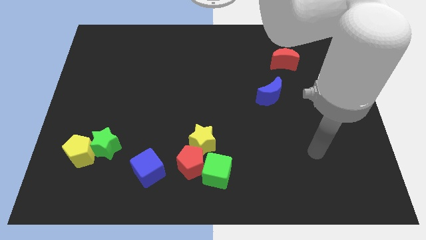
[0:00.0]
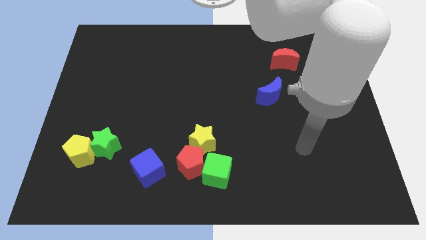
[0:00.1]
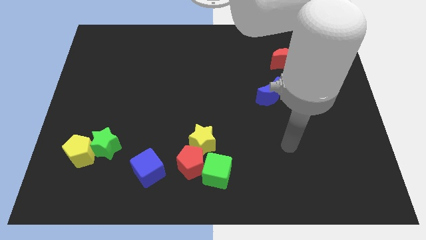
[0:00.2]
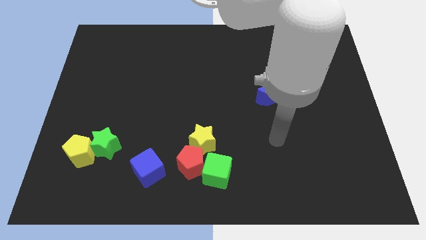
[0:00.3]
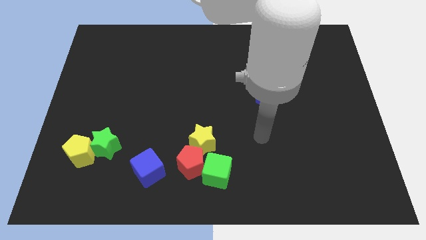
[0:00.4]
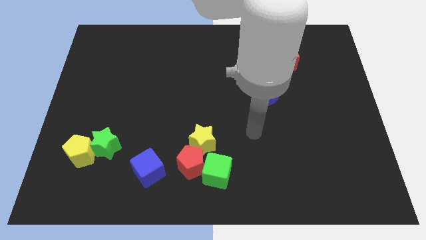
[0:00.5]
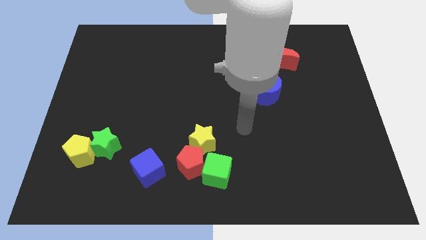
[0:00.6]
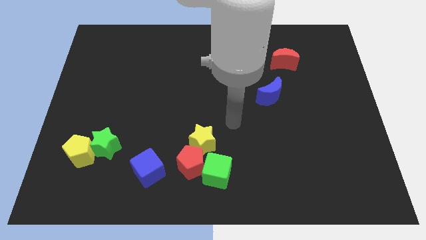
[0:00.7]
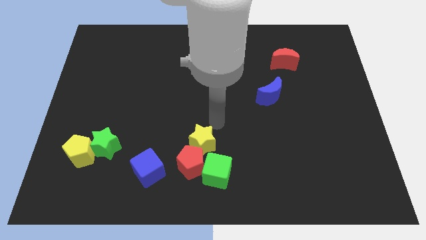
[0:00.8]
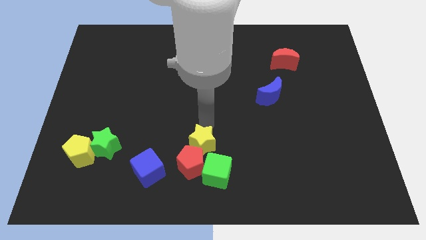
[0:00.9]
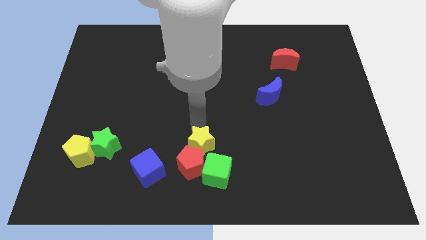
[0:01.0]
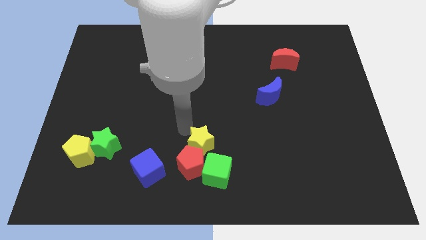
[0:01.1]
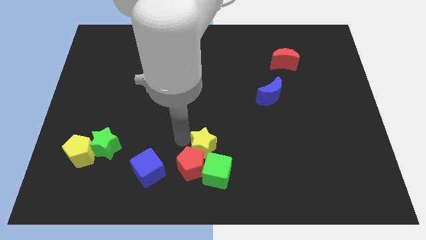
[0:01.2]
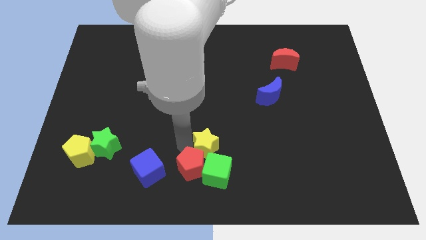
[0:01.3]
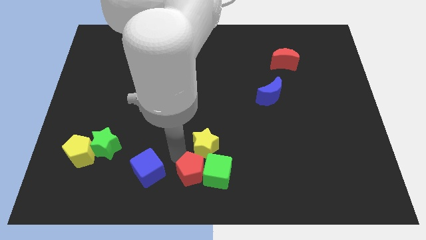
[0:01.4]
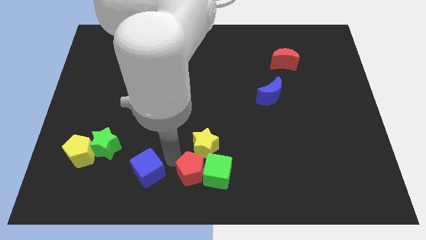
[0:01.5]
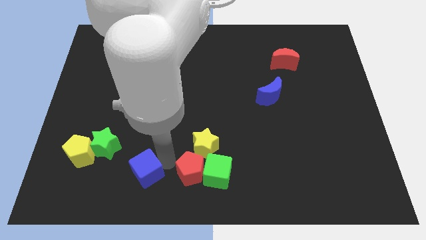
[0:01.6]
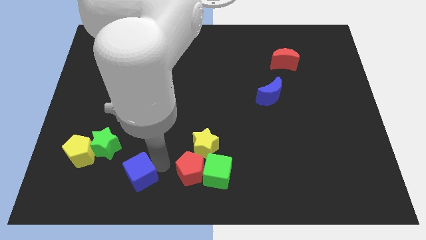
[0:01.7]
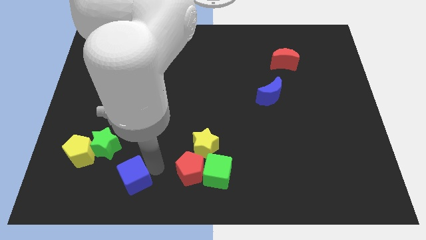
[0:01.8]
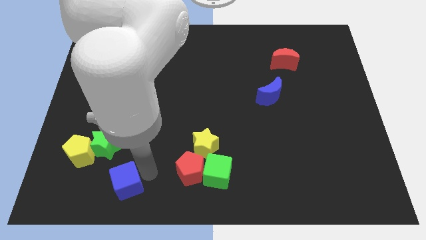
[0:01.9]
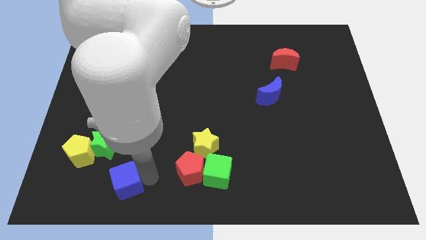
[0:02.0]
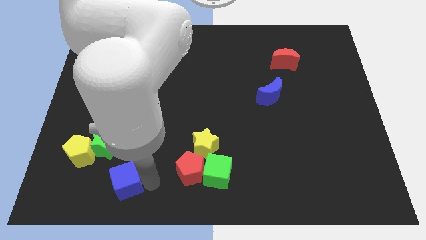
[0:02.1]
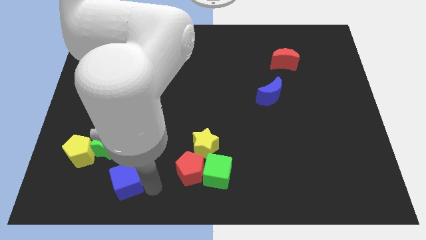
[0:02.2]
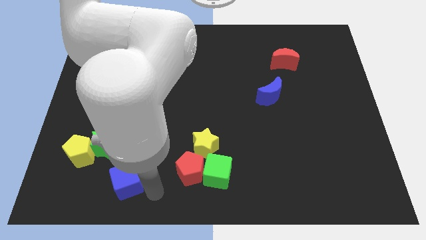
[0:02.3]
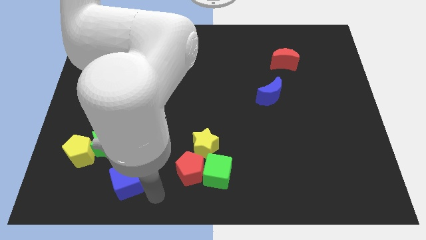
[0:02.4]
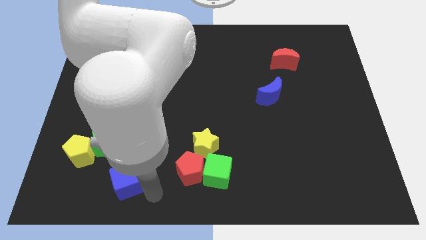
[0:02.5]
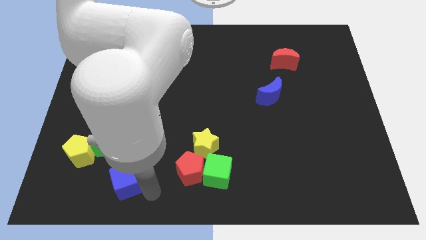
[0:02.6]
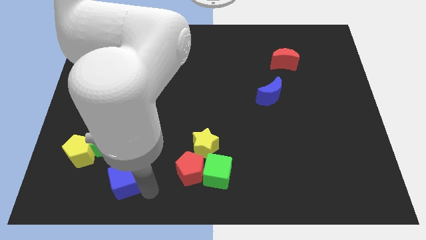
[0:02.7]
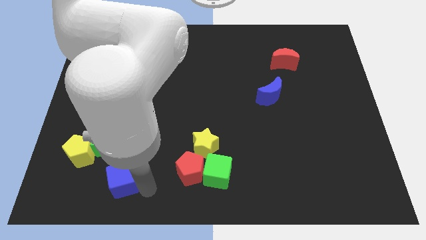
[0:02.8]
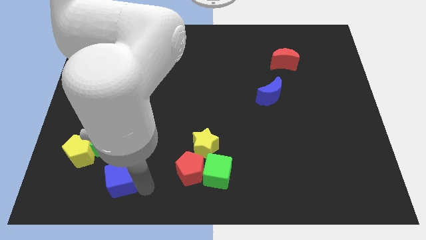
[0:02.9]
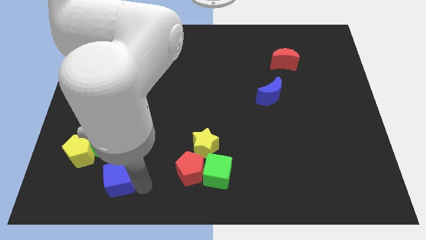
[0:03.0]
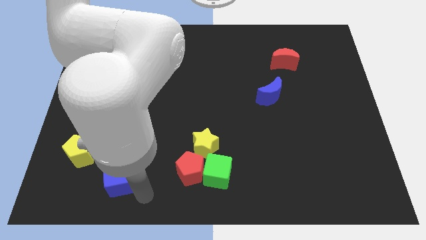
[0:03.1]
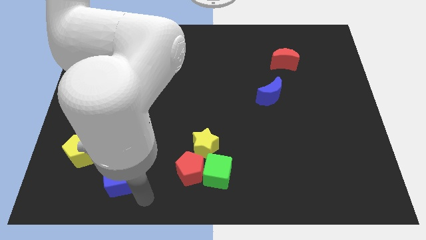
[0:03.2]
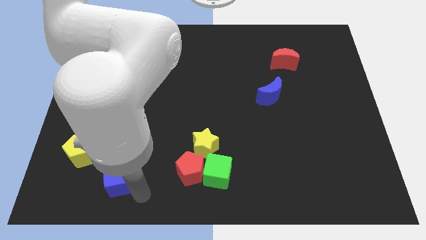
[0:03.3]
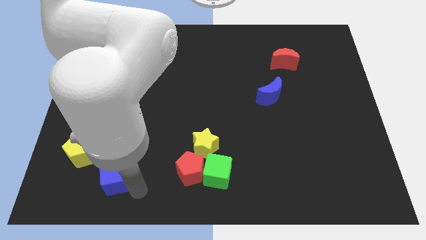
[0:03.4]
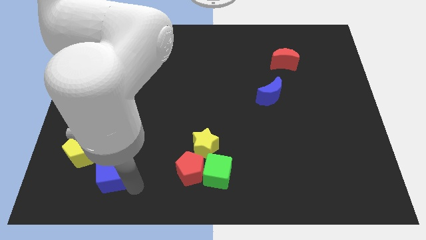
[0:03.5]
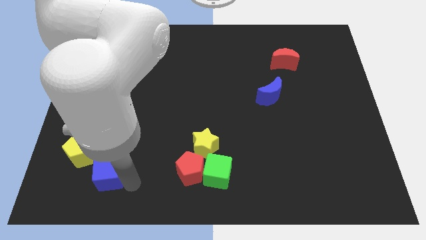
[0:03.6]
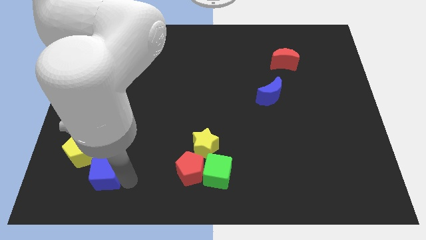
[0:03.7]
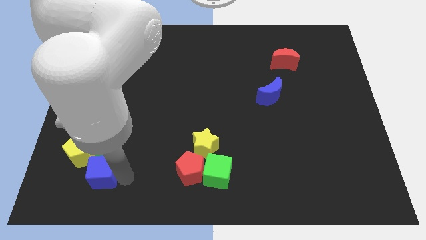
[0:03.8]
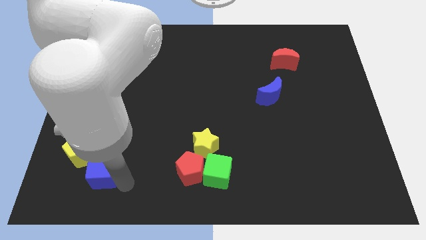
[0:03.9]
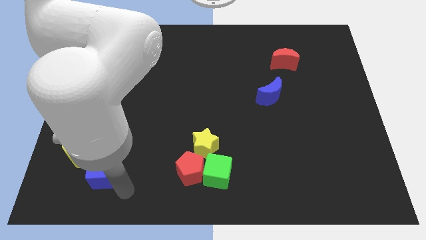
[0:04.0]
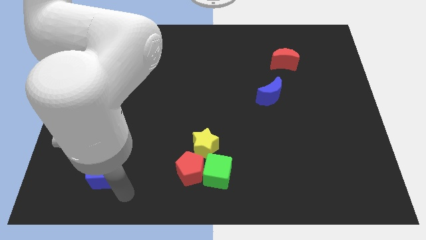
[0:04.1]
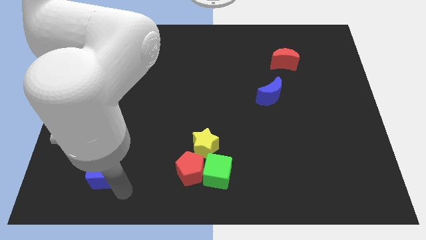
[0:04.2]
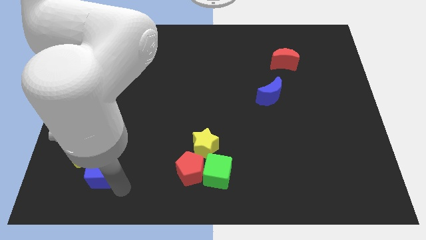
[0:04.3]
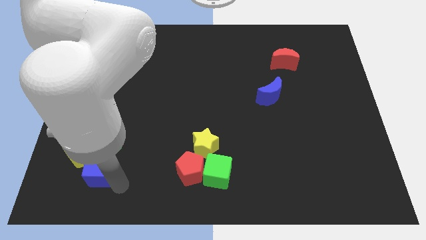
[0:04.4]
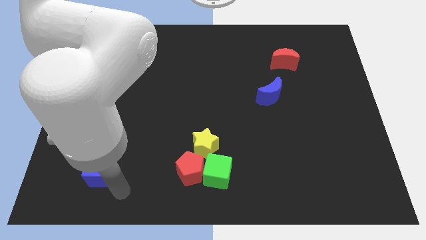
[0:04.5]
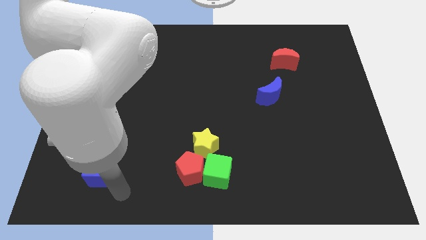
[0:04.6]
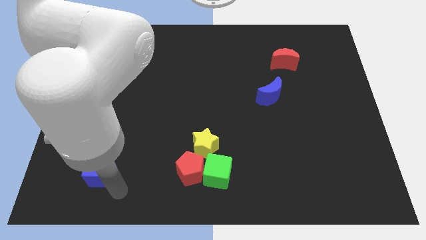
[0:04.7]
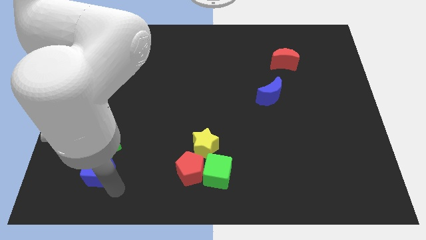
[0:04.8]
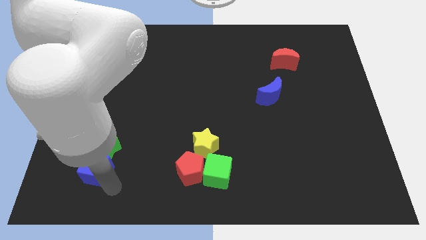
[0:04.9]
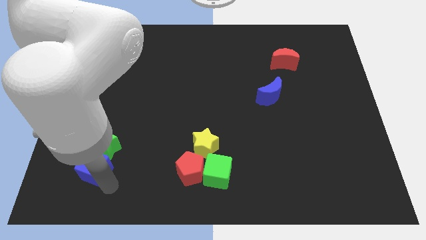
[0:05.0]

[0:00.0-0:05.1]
put the blue cube next to the yellow pentagon

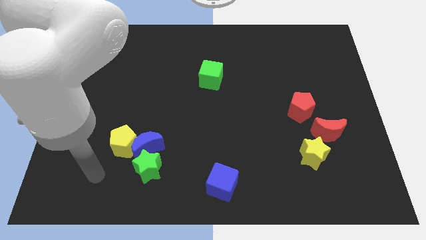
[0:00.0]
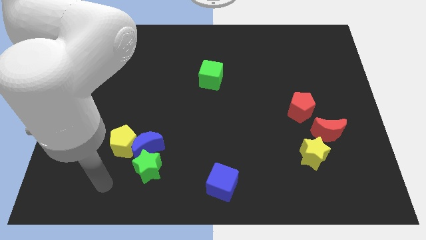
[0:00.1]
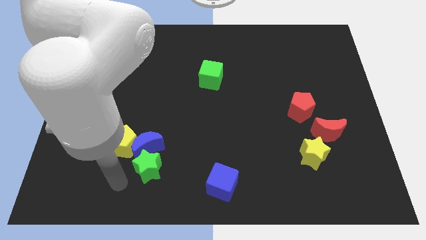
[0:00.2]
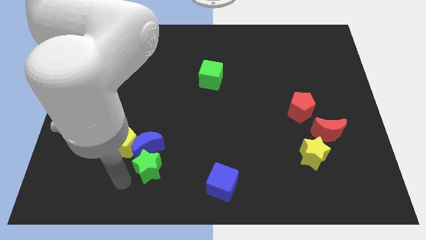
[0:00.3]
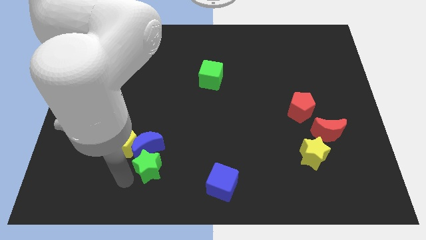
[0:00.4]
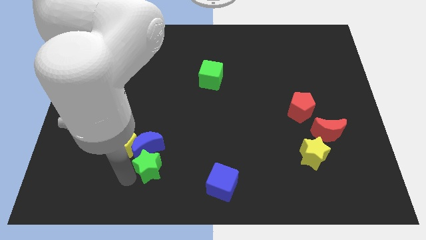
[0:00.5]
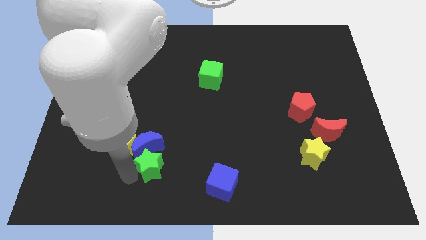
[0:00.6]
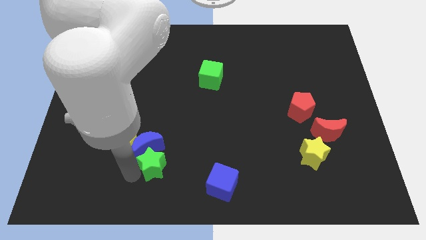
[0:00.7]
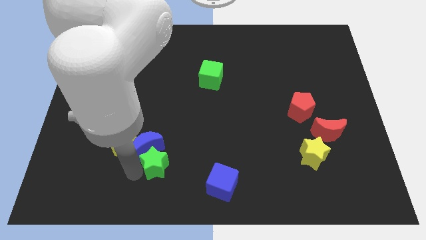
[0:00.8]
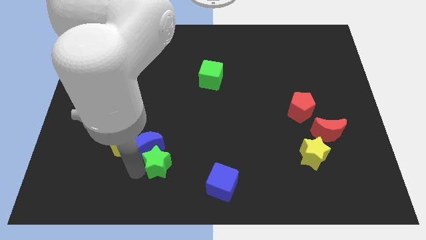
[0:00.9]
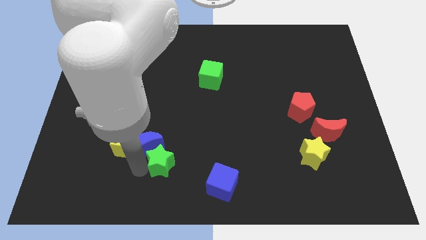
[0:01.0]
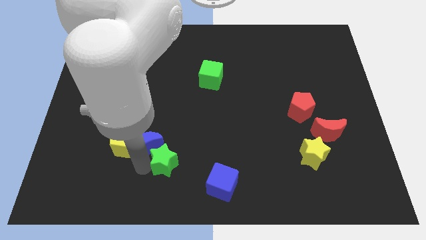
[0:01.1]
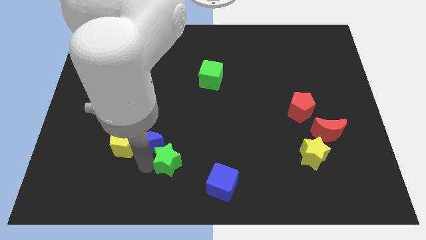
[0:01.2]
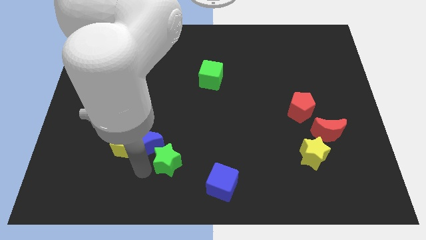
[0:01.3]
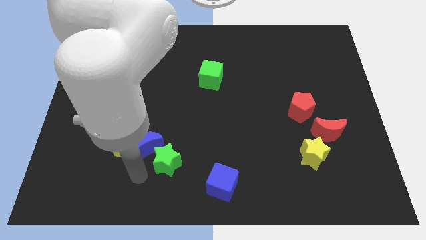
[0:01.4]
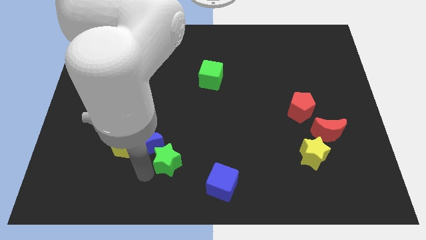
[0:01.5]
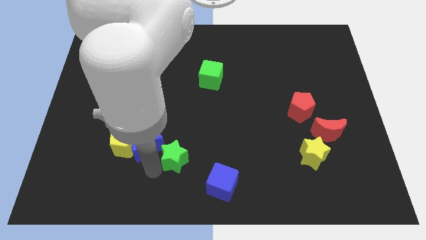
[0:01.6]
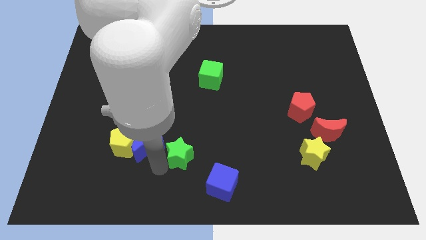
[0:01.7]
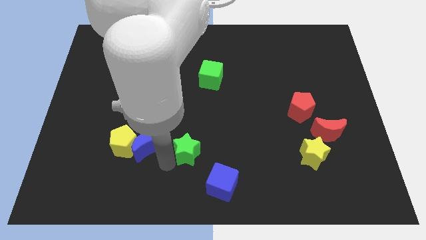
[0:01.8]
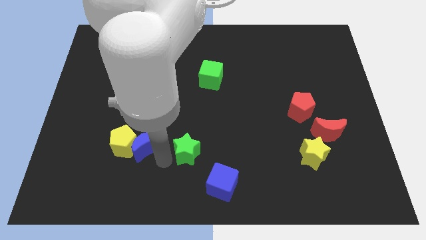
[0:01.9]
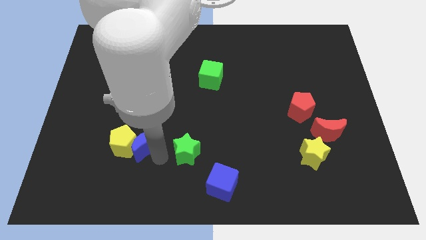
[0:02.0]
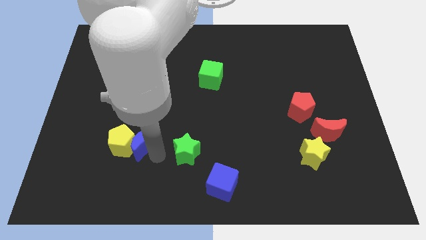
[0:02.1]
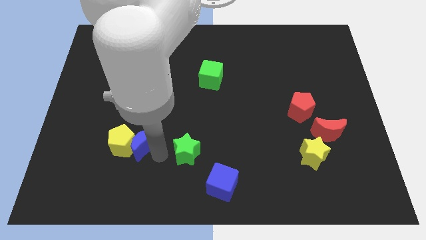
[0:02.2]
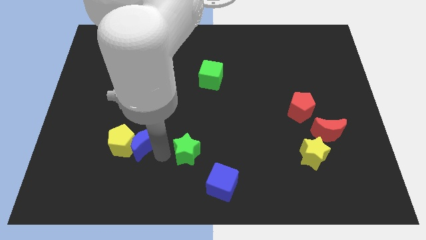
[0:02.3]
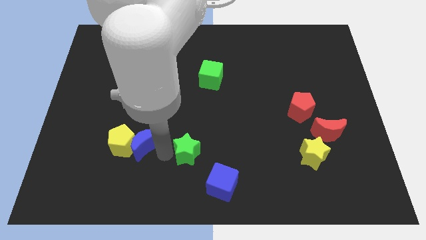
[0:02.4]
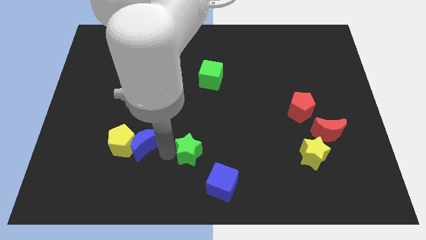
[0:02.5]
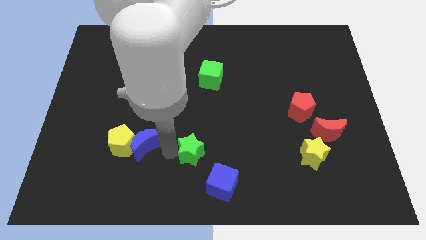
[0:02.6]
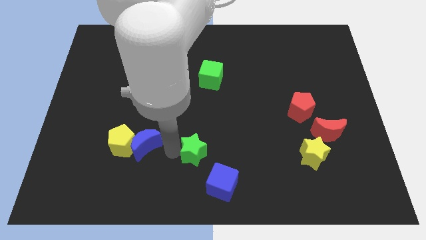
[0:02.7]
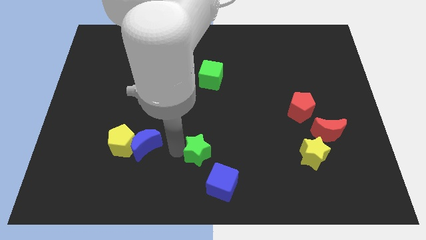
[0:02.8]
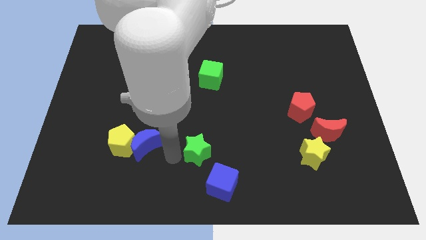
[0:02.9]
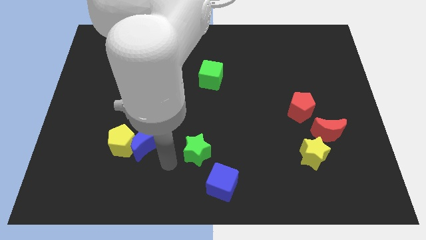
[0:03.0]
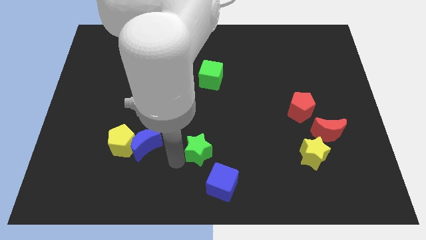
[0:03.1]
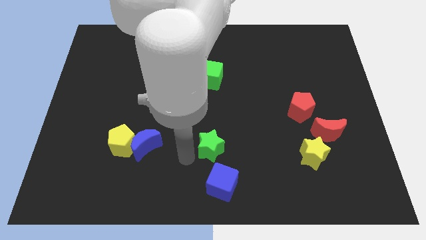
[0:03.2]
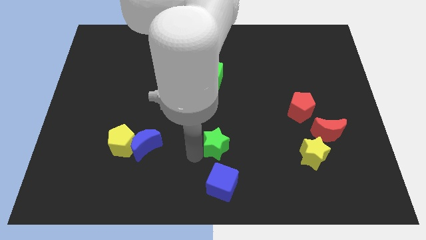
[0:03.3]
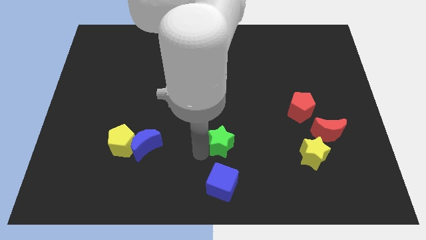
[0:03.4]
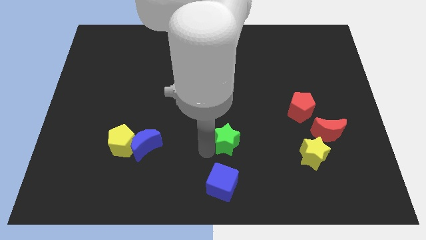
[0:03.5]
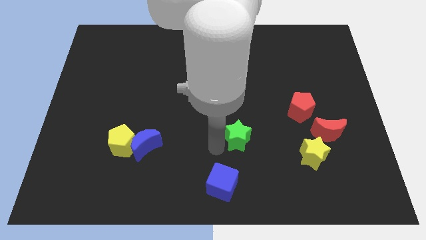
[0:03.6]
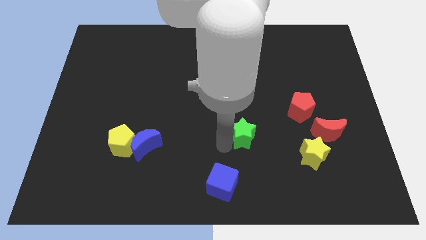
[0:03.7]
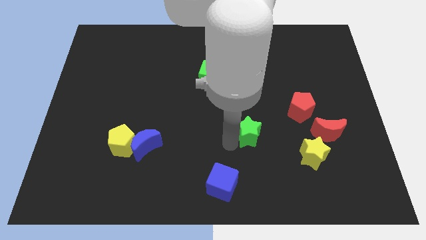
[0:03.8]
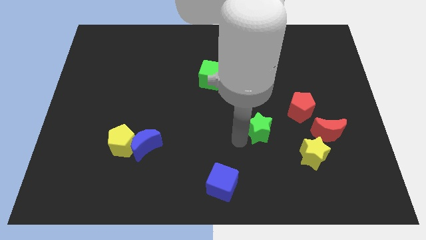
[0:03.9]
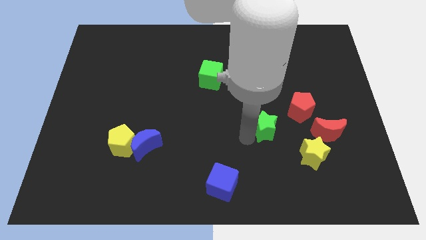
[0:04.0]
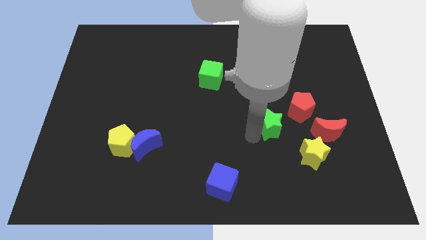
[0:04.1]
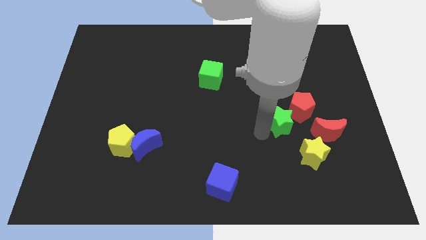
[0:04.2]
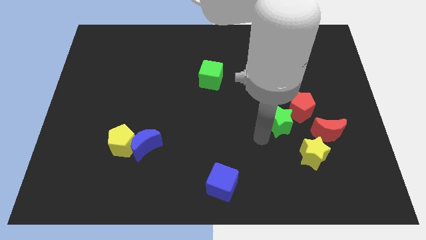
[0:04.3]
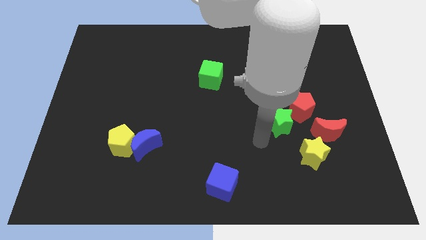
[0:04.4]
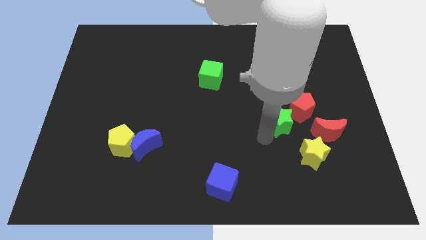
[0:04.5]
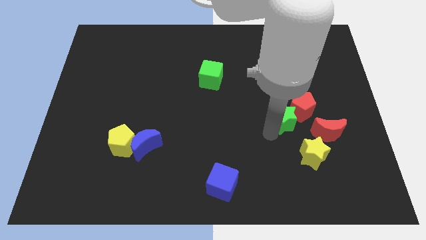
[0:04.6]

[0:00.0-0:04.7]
slide the green star towards the red pentagon
